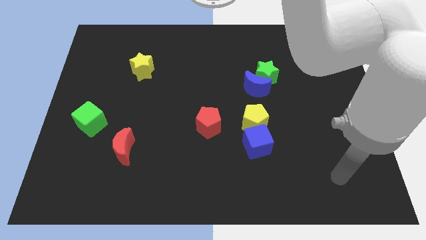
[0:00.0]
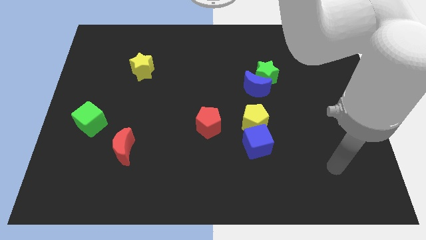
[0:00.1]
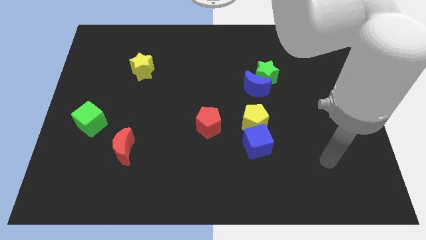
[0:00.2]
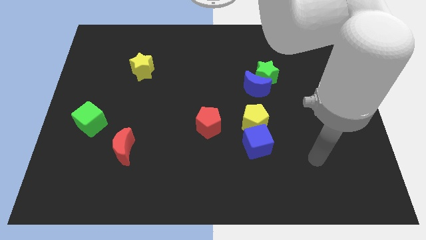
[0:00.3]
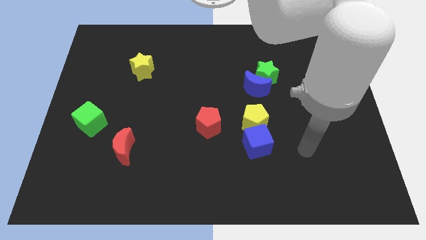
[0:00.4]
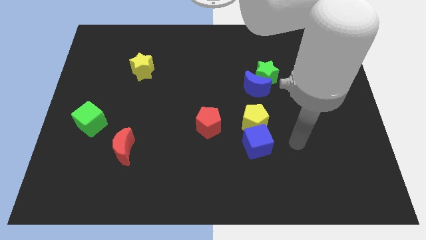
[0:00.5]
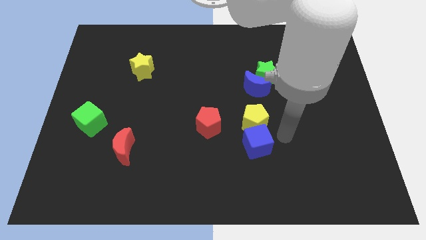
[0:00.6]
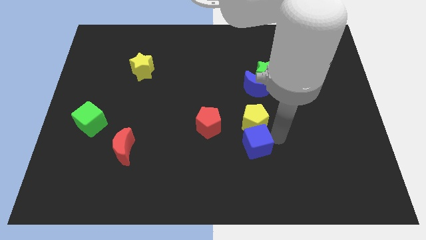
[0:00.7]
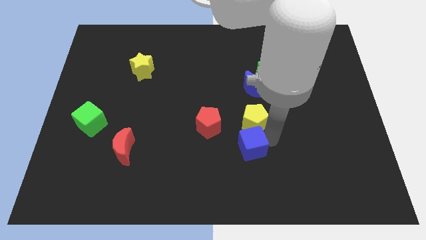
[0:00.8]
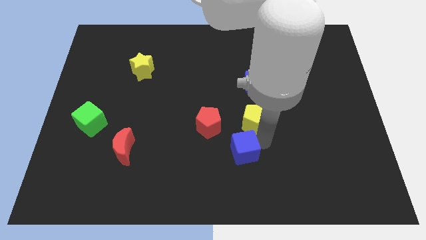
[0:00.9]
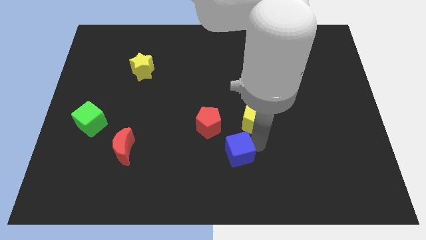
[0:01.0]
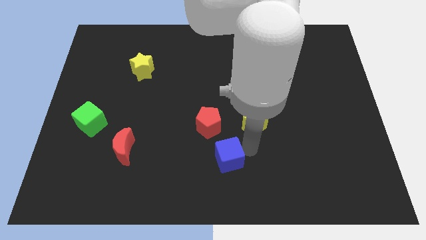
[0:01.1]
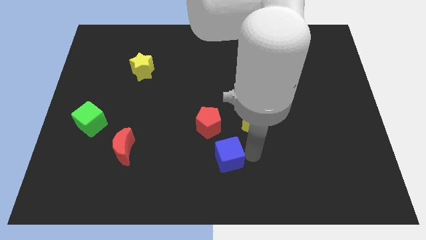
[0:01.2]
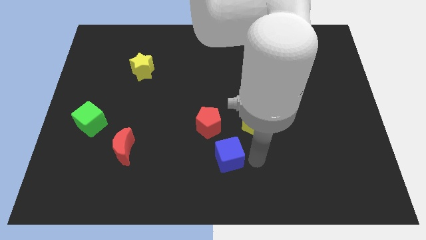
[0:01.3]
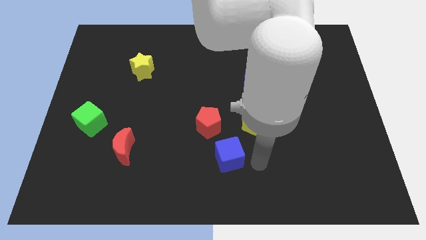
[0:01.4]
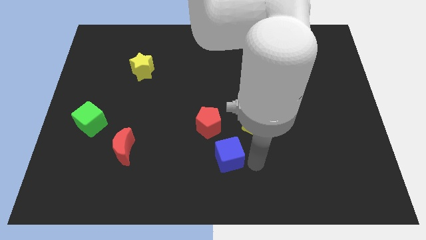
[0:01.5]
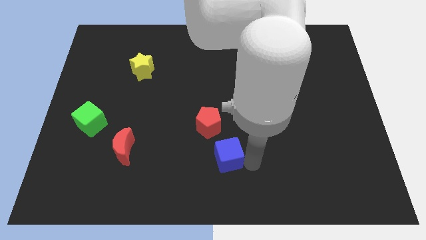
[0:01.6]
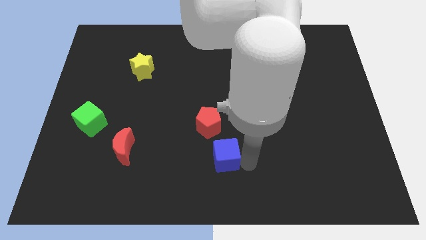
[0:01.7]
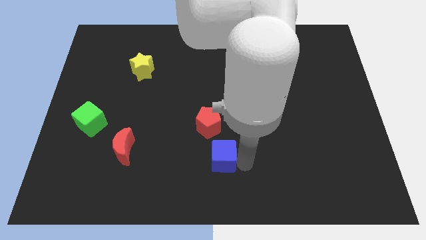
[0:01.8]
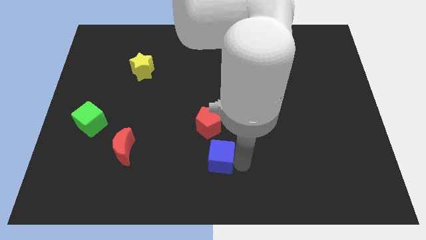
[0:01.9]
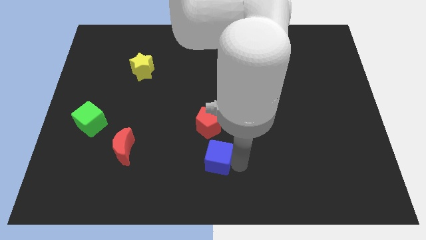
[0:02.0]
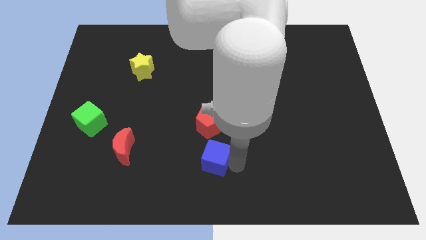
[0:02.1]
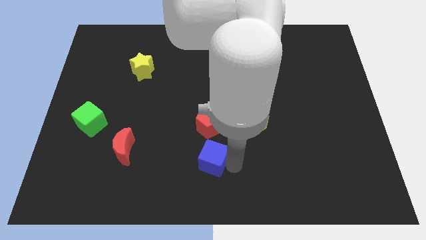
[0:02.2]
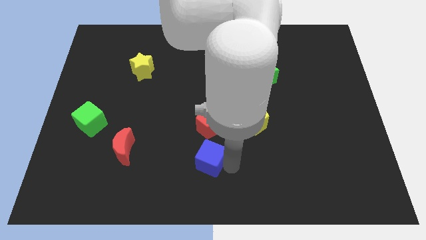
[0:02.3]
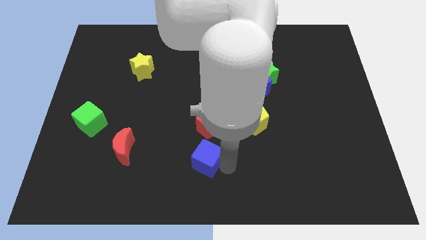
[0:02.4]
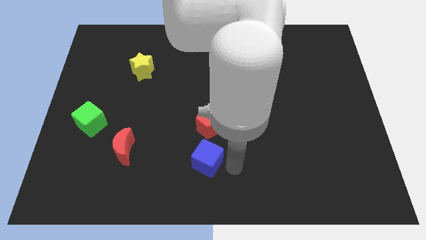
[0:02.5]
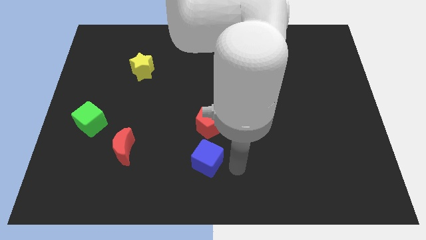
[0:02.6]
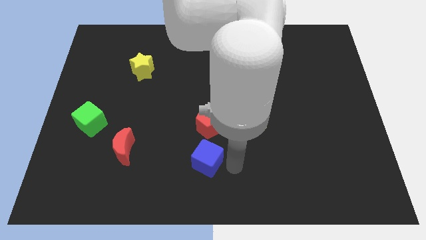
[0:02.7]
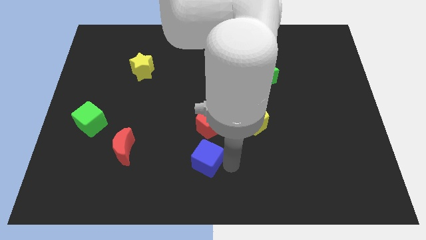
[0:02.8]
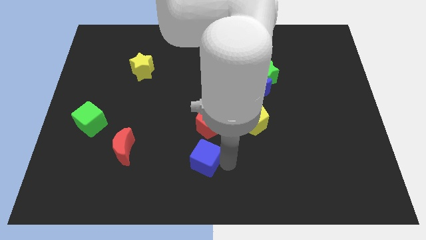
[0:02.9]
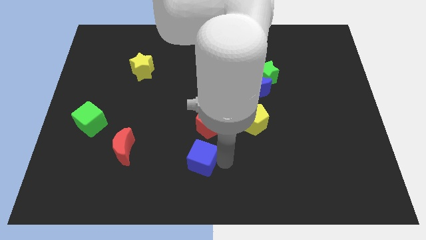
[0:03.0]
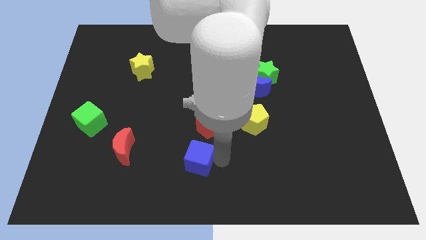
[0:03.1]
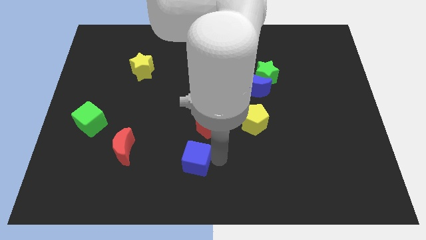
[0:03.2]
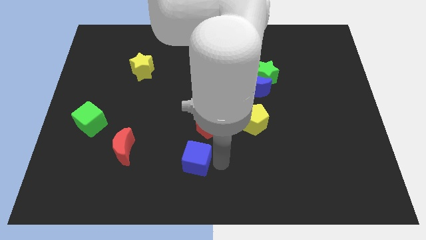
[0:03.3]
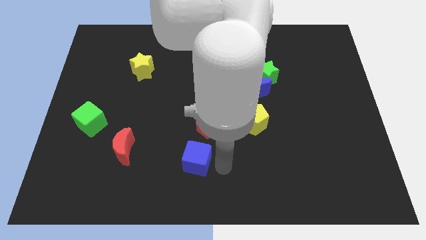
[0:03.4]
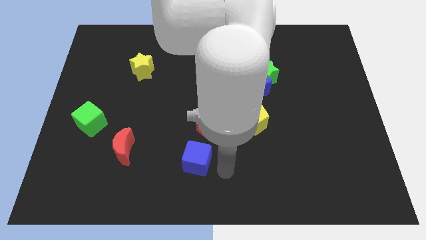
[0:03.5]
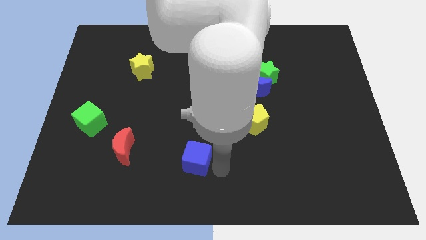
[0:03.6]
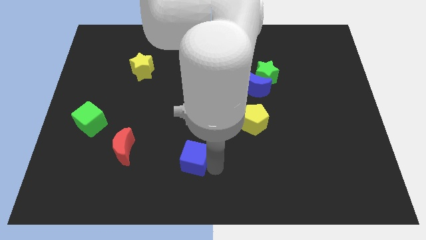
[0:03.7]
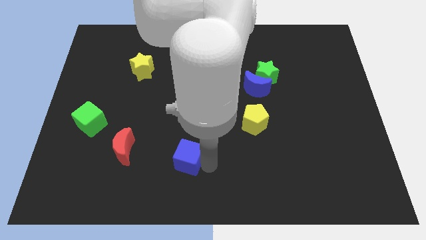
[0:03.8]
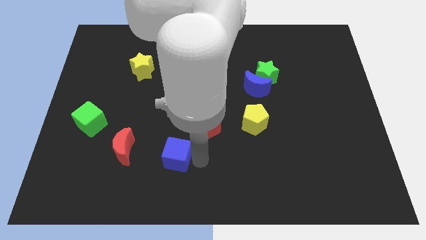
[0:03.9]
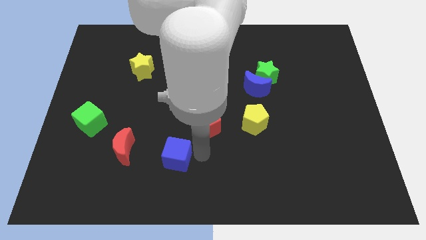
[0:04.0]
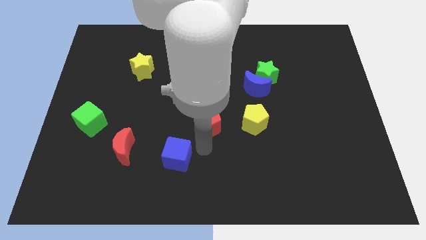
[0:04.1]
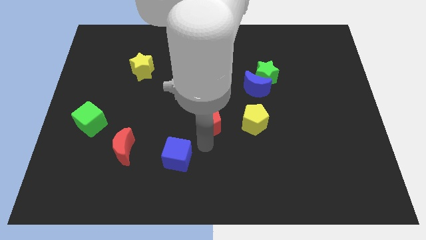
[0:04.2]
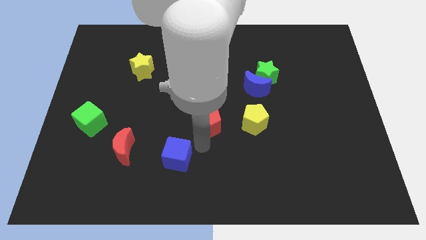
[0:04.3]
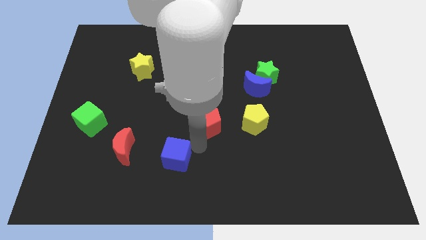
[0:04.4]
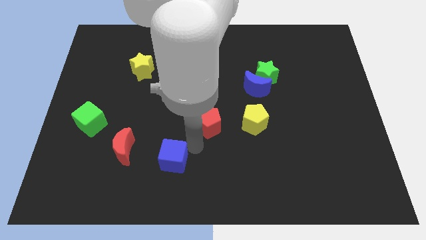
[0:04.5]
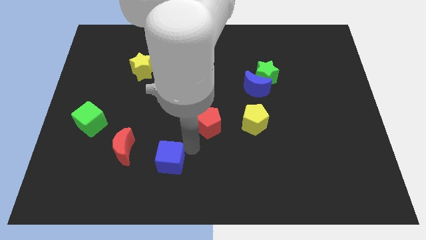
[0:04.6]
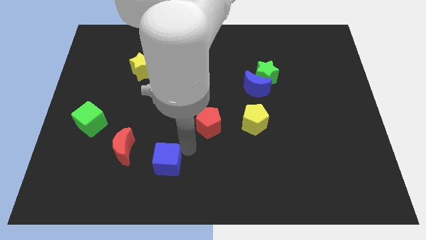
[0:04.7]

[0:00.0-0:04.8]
slide the blue cube to the bottom right side of the red moon

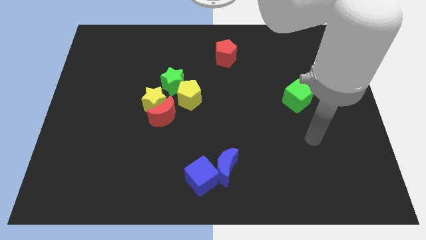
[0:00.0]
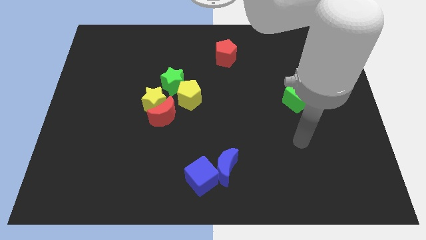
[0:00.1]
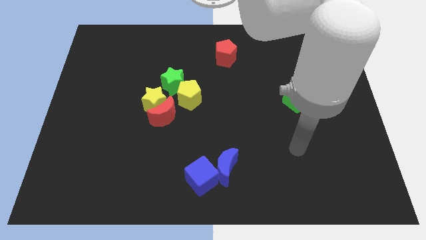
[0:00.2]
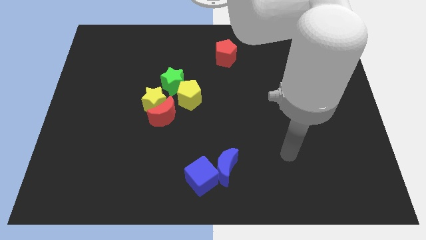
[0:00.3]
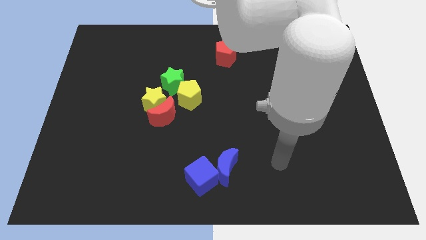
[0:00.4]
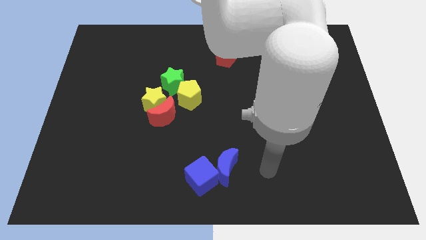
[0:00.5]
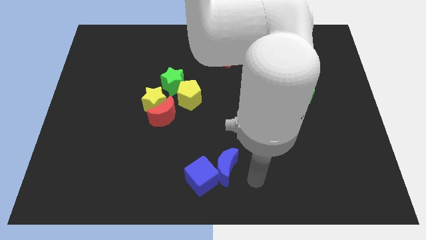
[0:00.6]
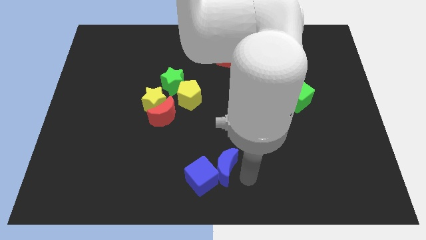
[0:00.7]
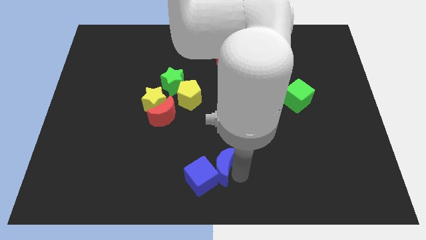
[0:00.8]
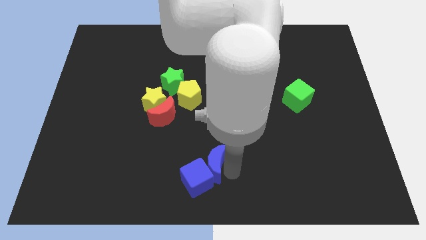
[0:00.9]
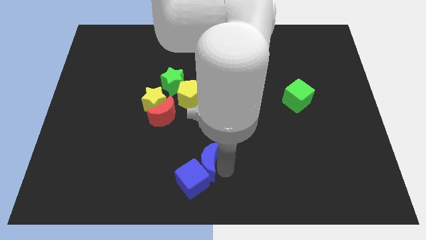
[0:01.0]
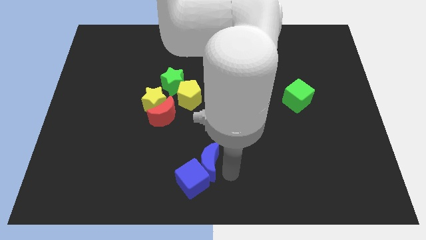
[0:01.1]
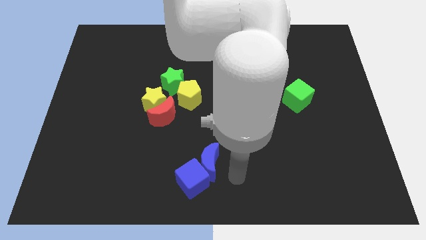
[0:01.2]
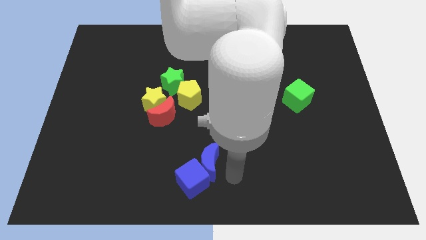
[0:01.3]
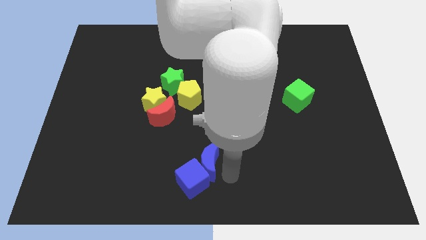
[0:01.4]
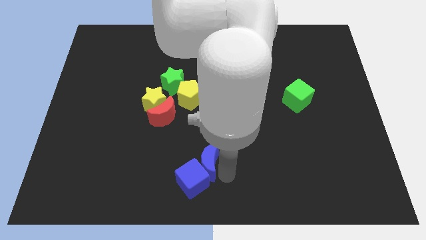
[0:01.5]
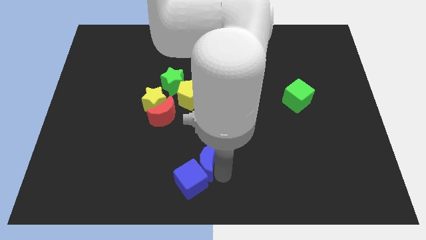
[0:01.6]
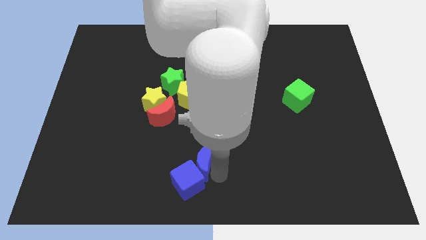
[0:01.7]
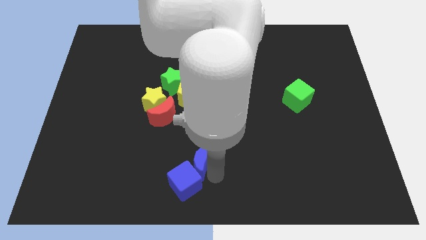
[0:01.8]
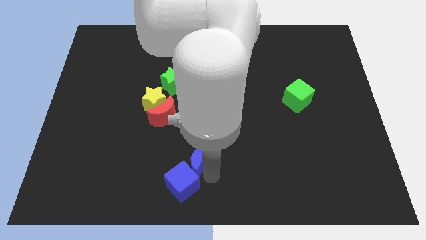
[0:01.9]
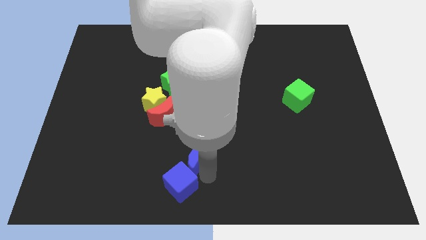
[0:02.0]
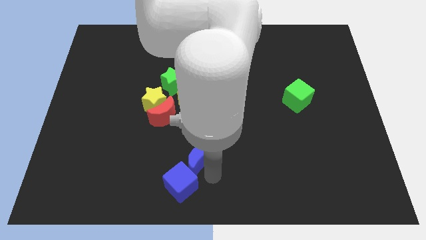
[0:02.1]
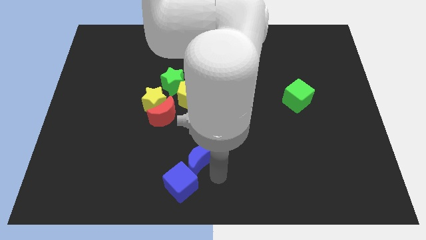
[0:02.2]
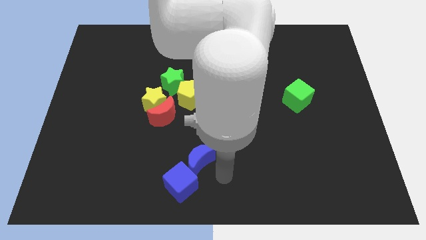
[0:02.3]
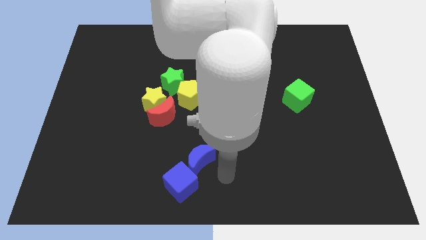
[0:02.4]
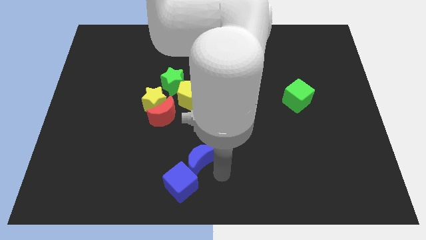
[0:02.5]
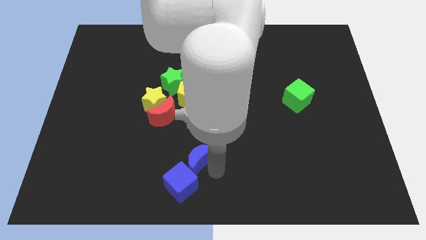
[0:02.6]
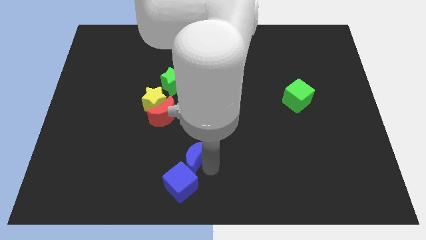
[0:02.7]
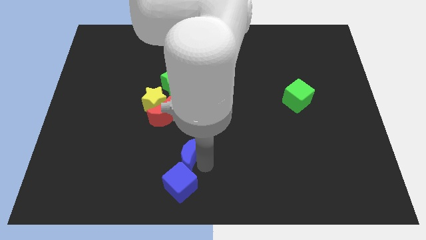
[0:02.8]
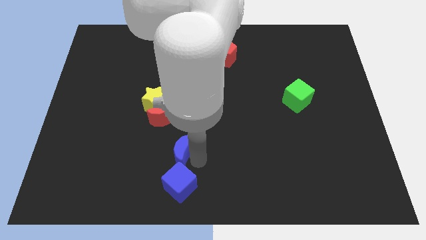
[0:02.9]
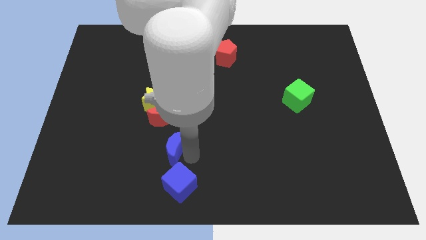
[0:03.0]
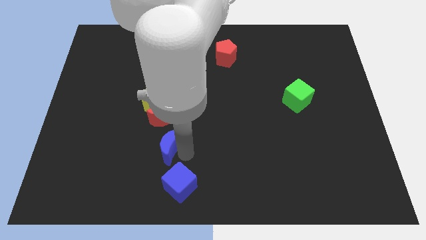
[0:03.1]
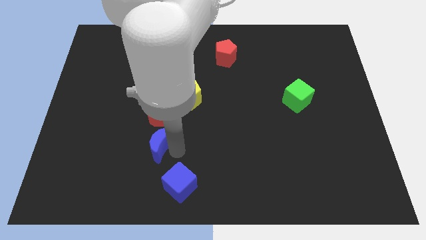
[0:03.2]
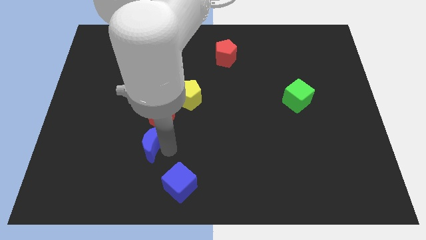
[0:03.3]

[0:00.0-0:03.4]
push the blue moon to the bottom left of the red moon
